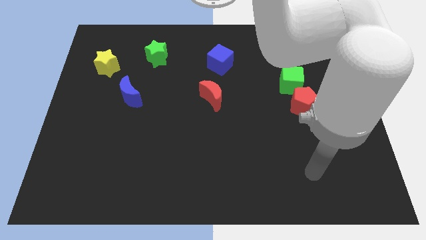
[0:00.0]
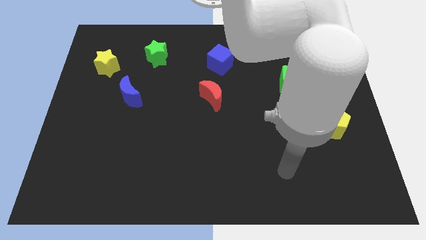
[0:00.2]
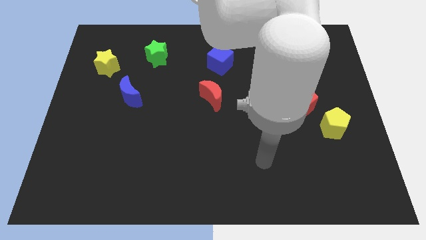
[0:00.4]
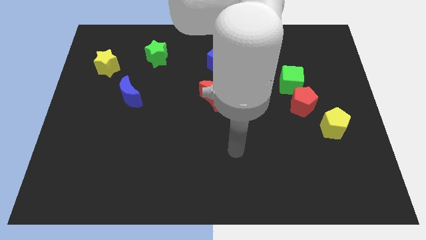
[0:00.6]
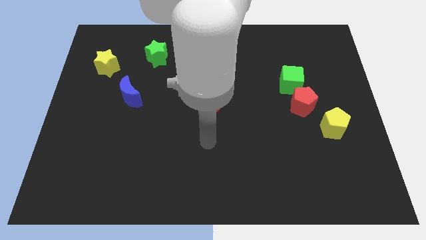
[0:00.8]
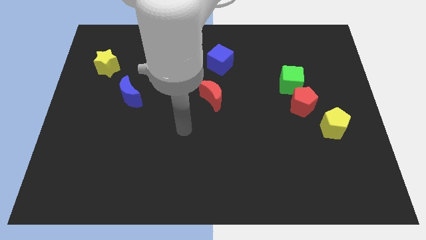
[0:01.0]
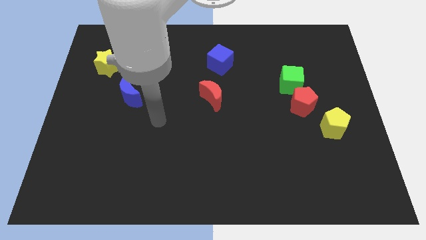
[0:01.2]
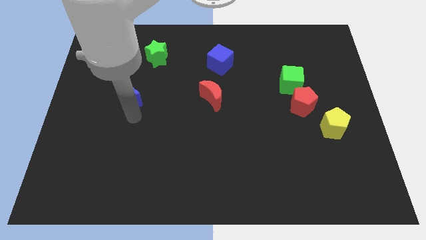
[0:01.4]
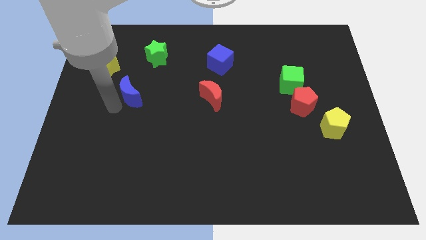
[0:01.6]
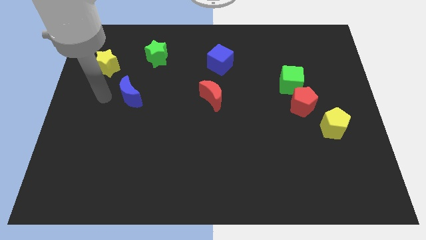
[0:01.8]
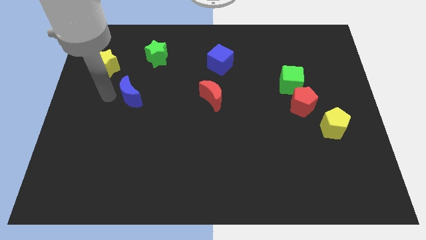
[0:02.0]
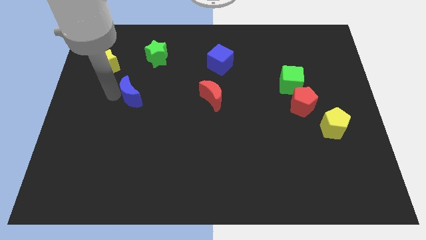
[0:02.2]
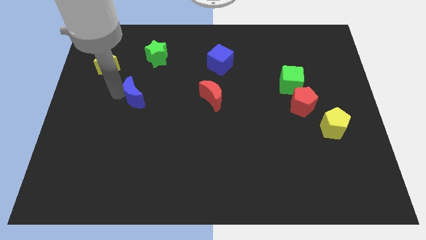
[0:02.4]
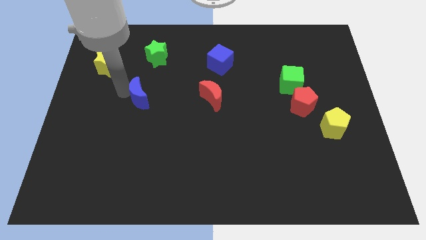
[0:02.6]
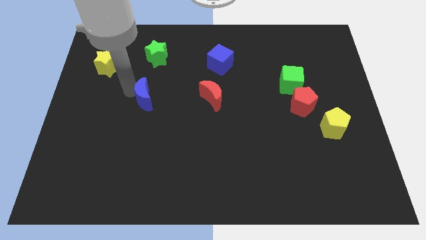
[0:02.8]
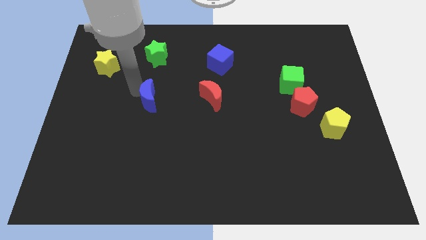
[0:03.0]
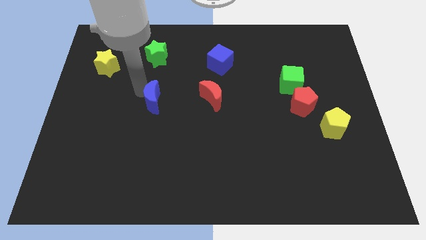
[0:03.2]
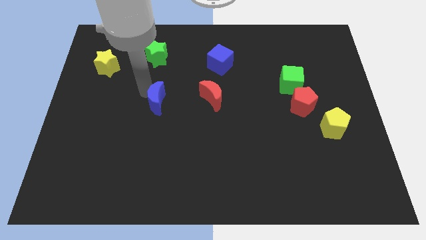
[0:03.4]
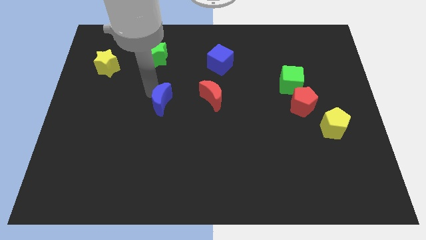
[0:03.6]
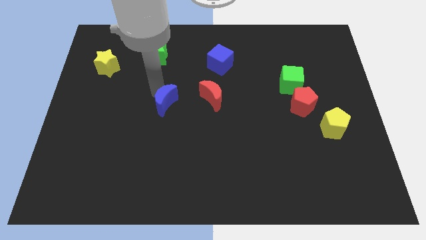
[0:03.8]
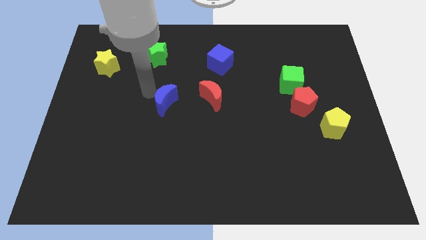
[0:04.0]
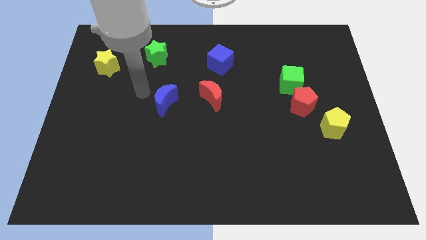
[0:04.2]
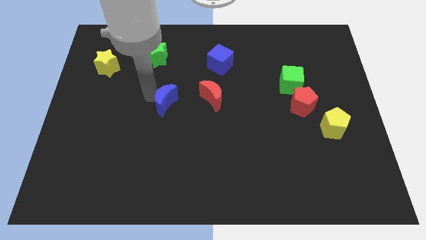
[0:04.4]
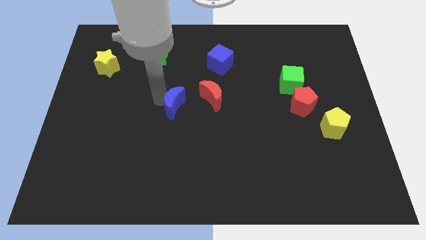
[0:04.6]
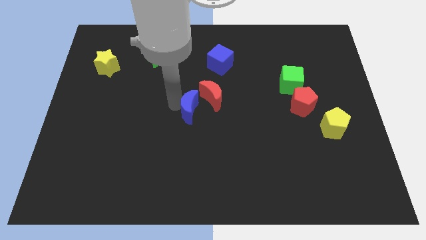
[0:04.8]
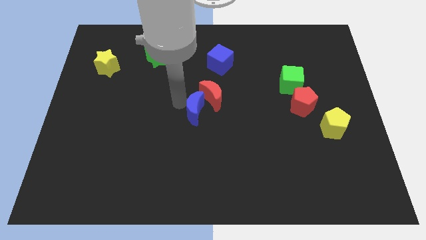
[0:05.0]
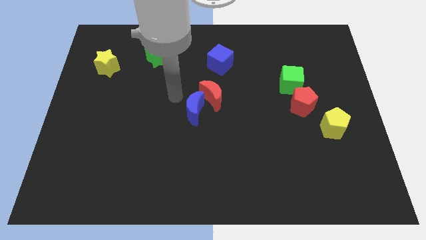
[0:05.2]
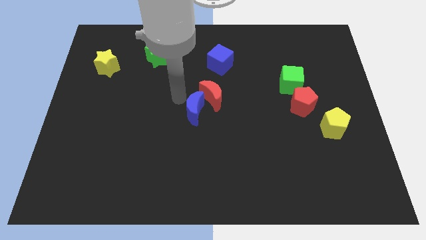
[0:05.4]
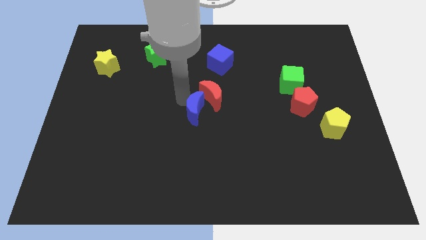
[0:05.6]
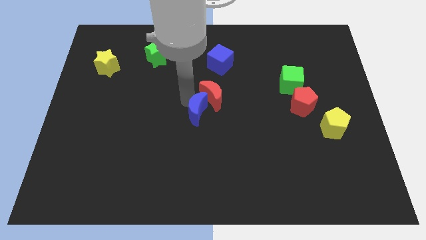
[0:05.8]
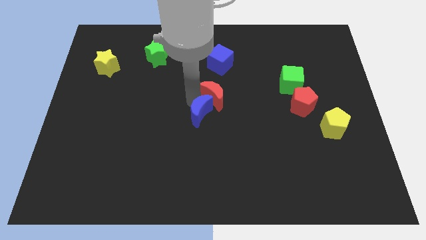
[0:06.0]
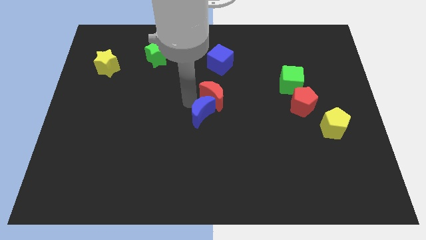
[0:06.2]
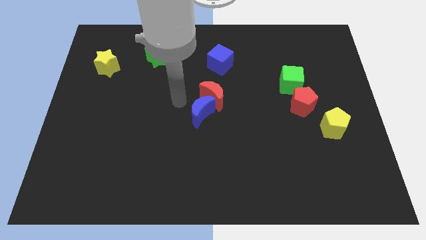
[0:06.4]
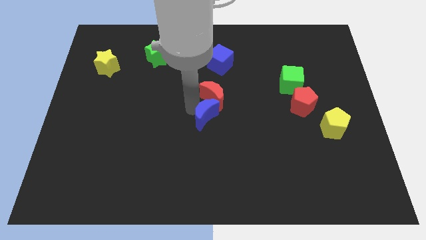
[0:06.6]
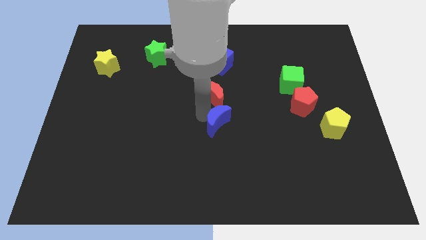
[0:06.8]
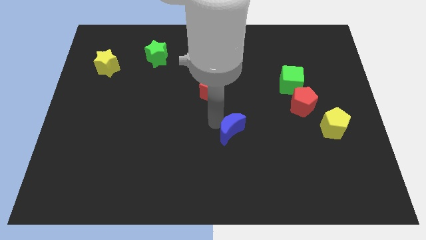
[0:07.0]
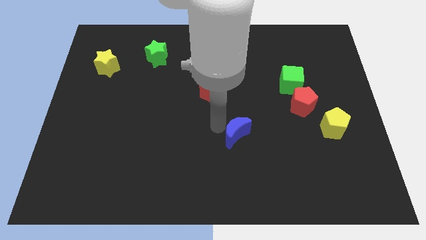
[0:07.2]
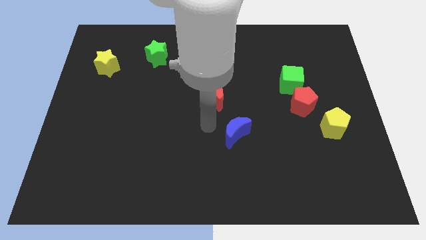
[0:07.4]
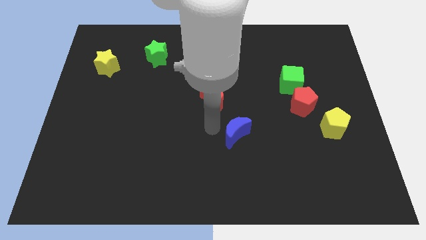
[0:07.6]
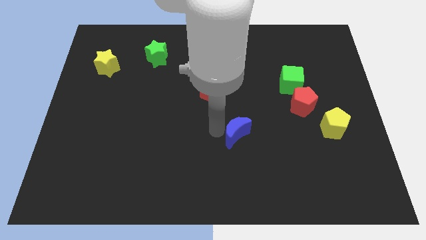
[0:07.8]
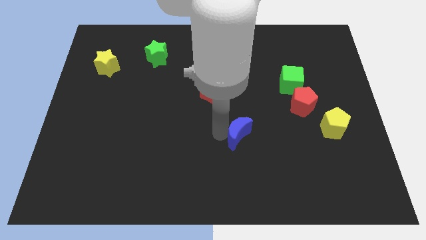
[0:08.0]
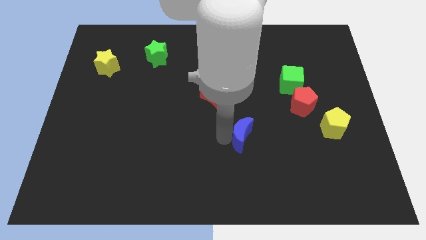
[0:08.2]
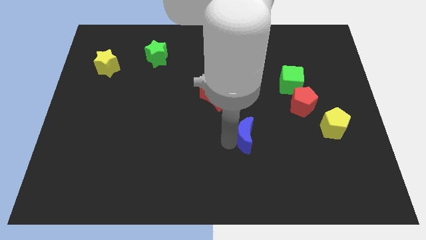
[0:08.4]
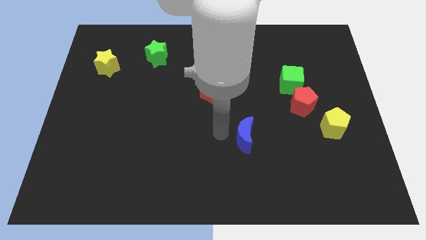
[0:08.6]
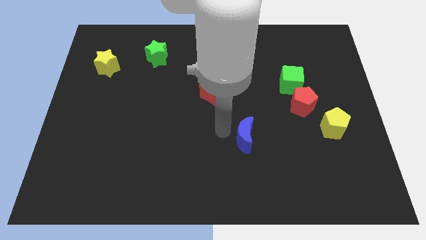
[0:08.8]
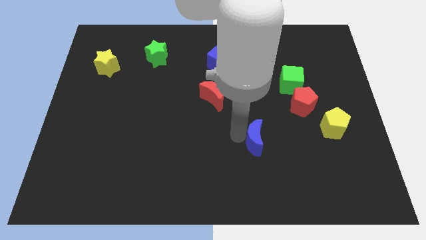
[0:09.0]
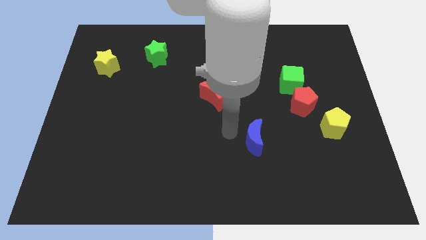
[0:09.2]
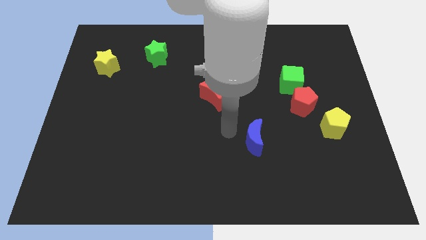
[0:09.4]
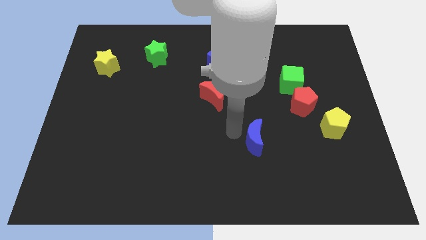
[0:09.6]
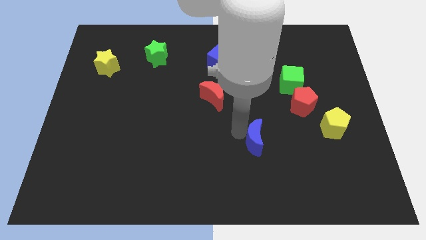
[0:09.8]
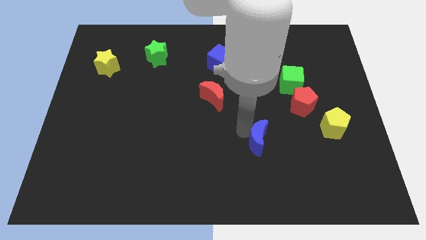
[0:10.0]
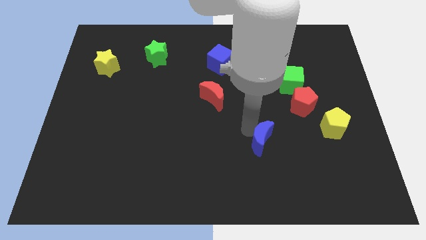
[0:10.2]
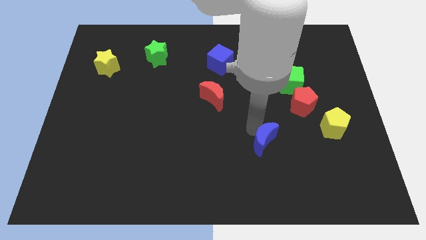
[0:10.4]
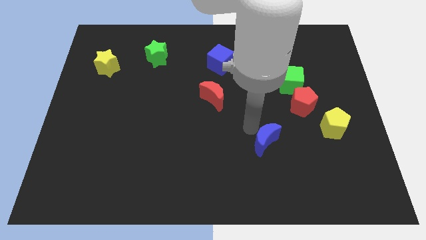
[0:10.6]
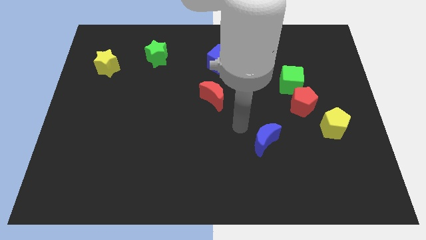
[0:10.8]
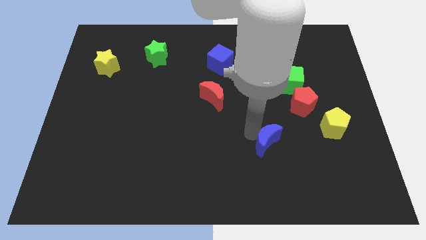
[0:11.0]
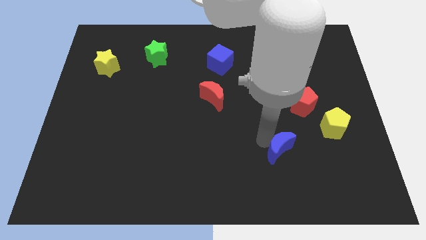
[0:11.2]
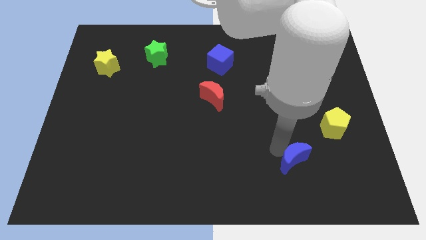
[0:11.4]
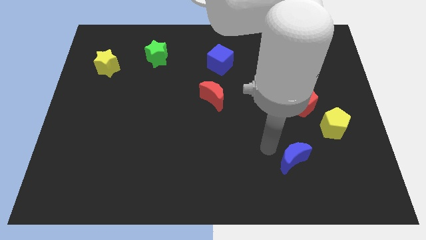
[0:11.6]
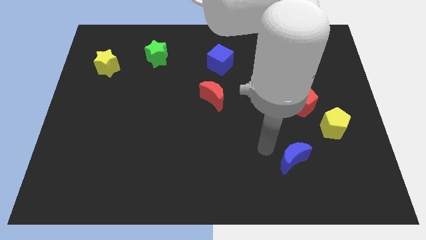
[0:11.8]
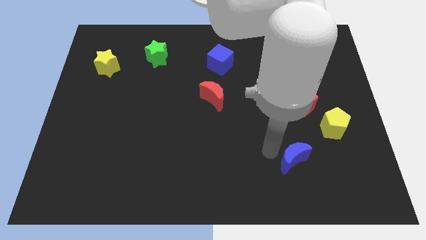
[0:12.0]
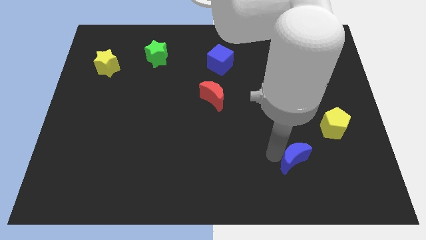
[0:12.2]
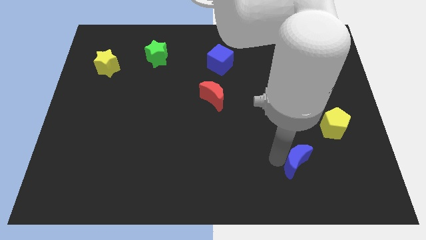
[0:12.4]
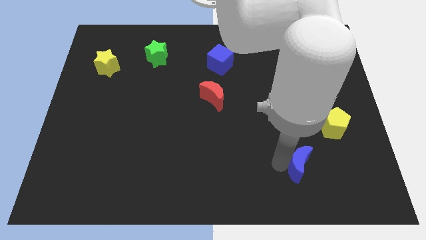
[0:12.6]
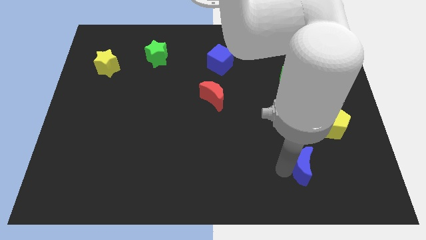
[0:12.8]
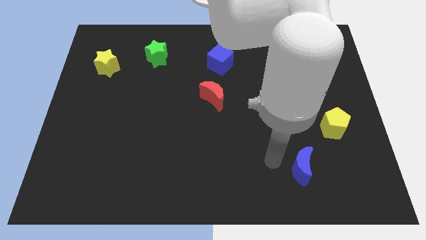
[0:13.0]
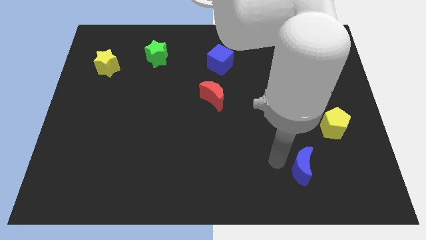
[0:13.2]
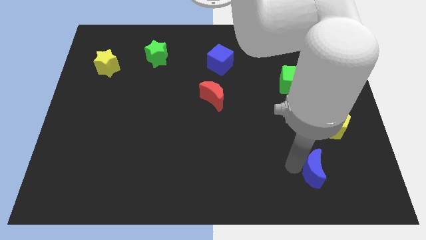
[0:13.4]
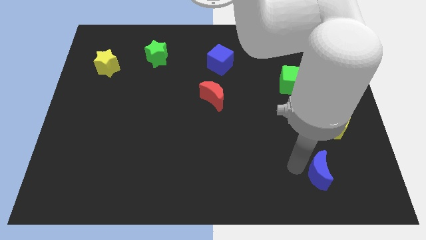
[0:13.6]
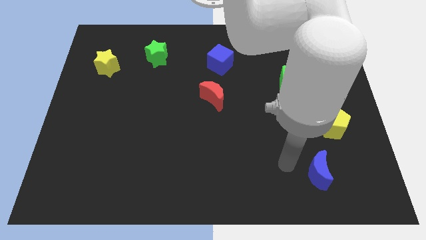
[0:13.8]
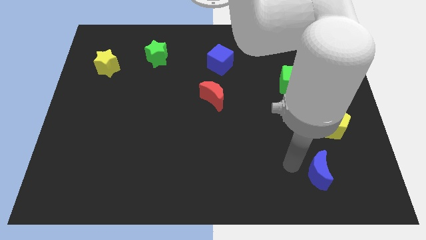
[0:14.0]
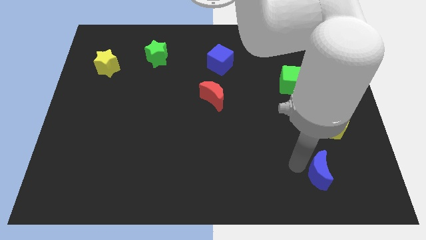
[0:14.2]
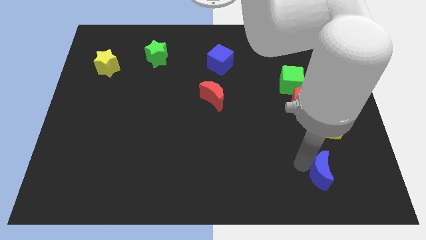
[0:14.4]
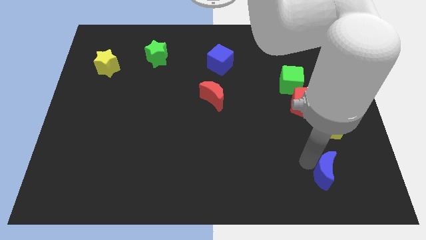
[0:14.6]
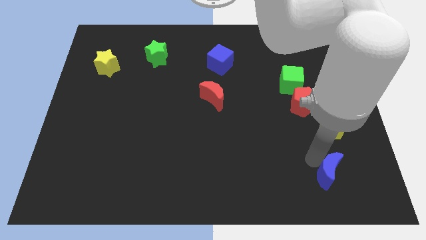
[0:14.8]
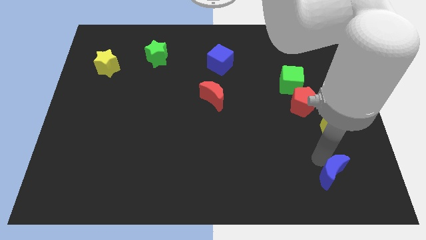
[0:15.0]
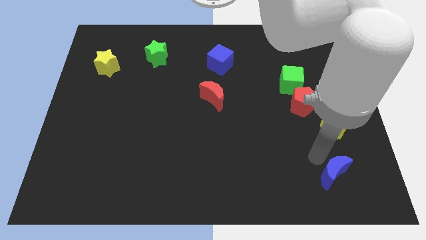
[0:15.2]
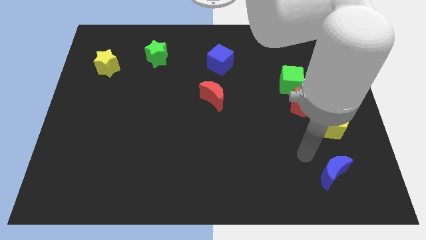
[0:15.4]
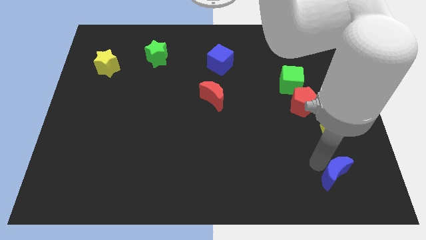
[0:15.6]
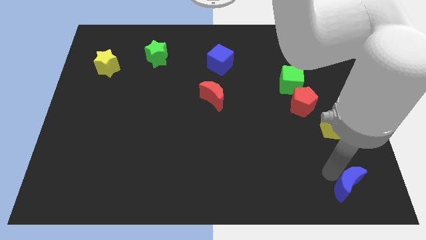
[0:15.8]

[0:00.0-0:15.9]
slide the blue moon to the lower right corner
